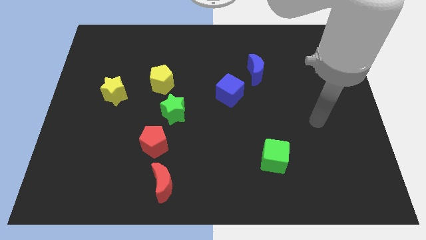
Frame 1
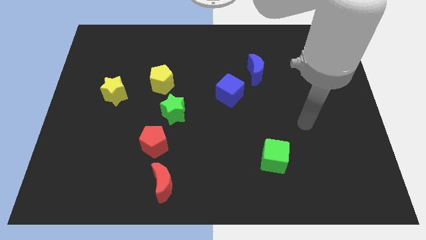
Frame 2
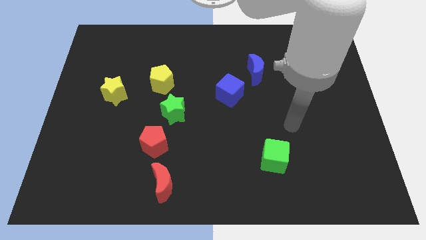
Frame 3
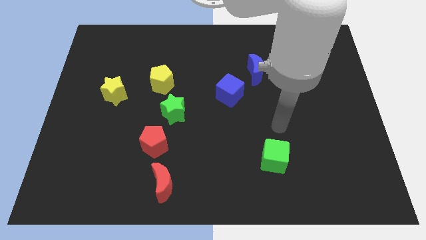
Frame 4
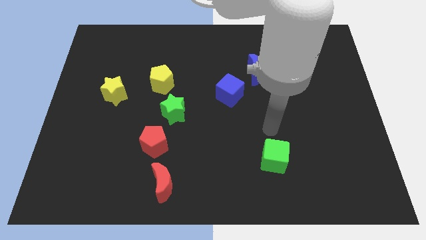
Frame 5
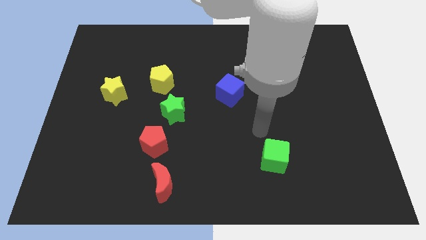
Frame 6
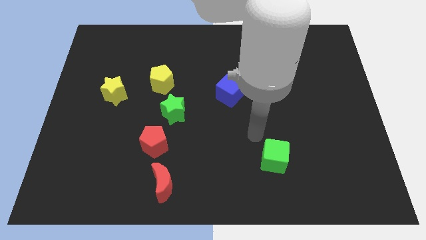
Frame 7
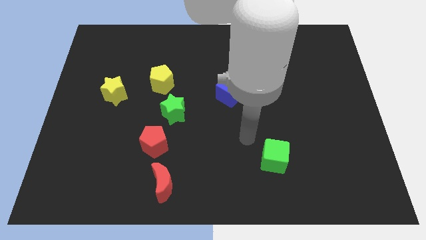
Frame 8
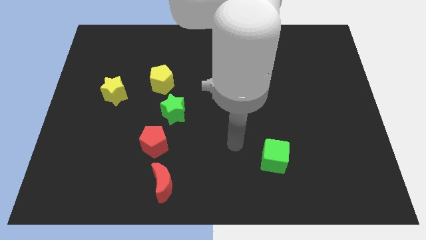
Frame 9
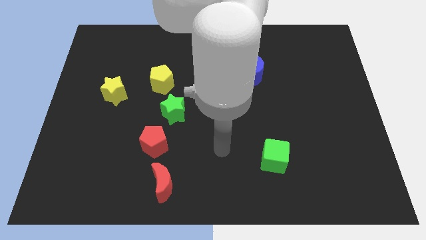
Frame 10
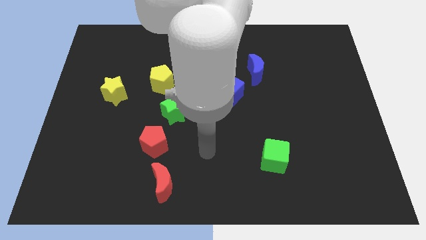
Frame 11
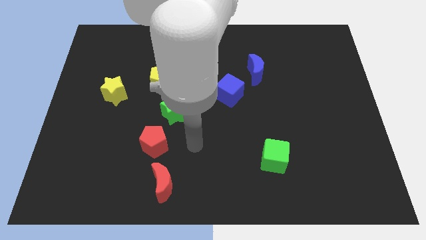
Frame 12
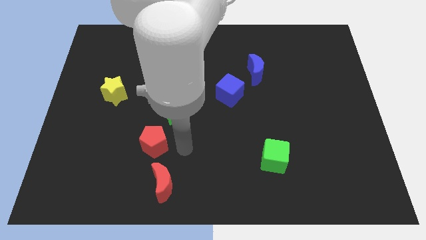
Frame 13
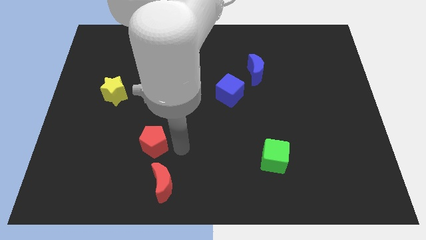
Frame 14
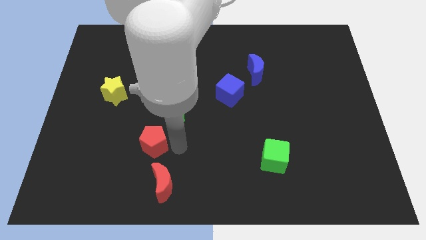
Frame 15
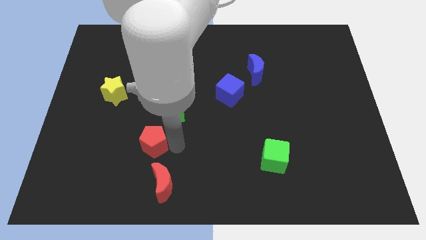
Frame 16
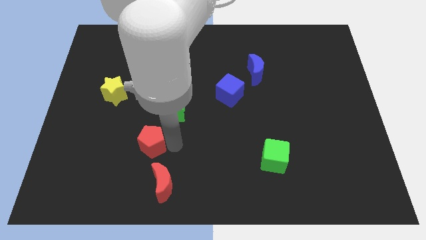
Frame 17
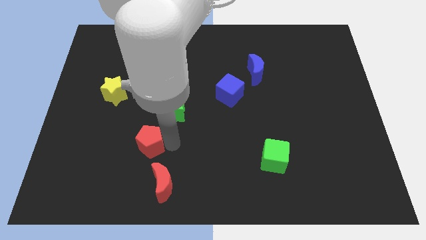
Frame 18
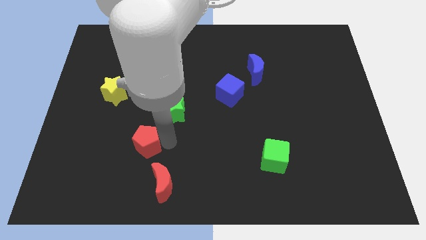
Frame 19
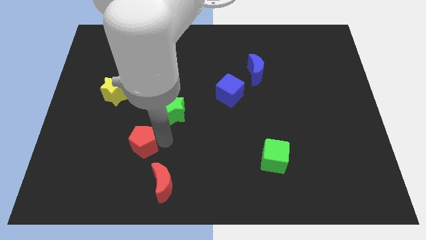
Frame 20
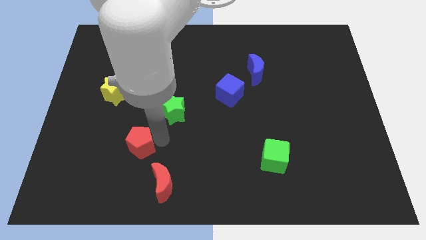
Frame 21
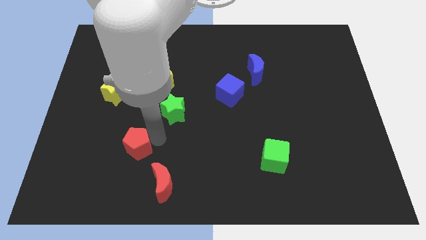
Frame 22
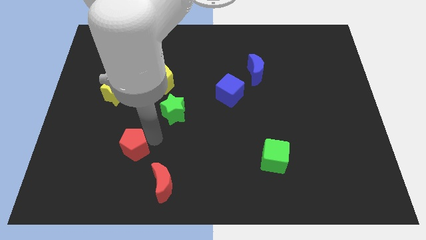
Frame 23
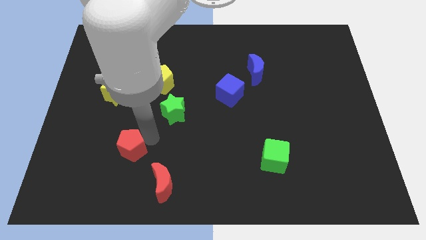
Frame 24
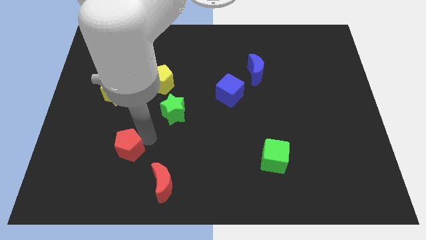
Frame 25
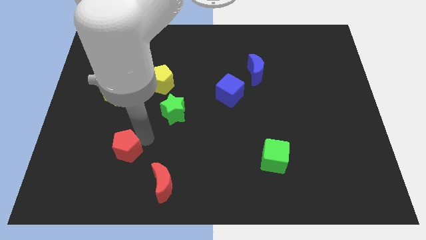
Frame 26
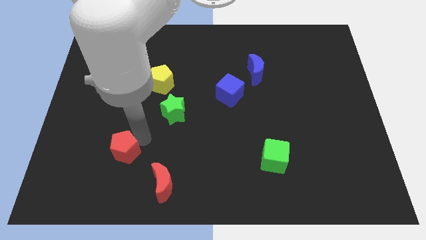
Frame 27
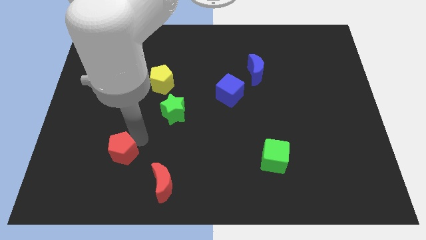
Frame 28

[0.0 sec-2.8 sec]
move the red pentagon away from the green star and red moon

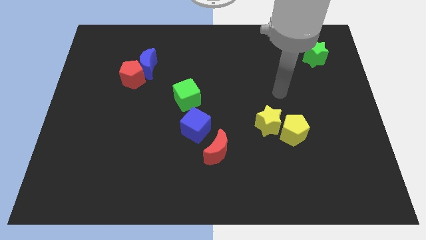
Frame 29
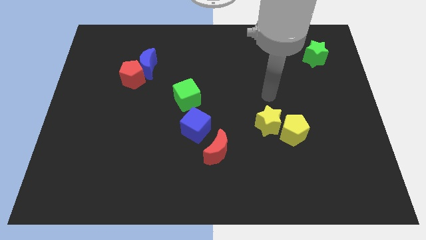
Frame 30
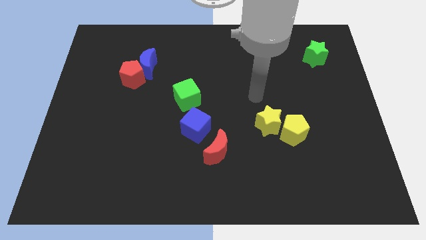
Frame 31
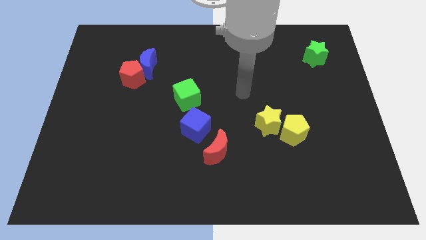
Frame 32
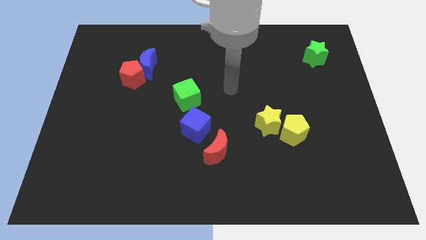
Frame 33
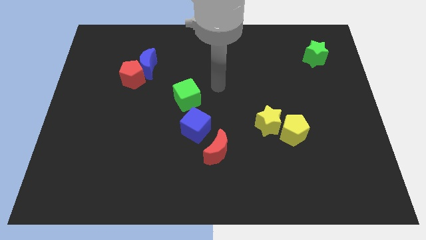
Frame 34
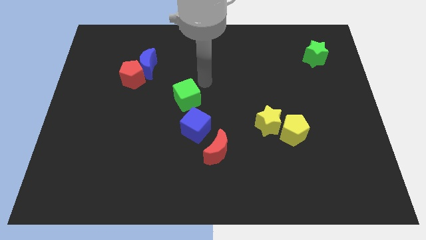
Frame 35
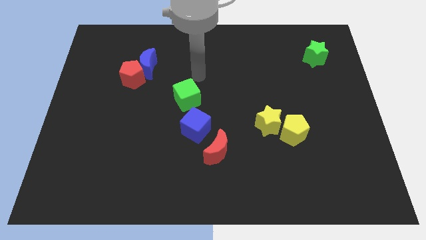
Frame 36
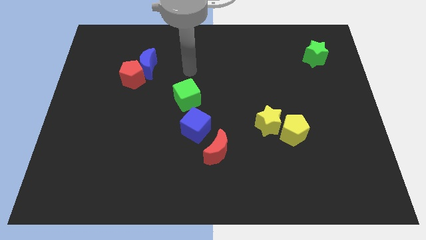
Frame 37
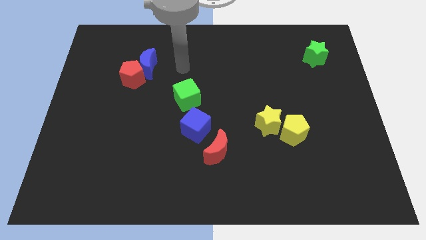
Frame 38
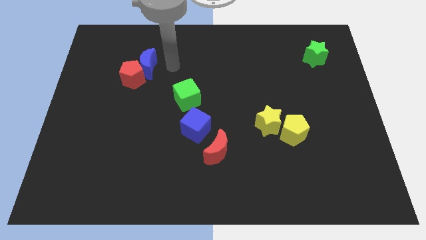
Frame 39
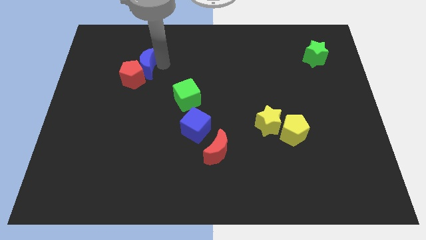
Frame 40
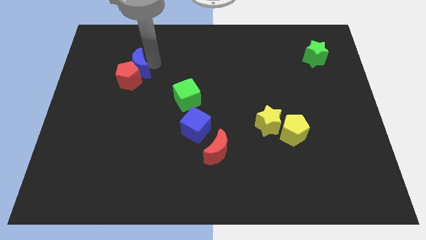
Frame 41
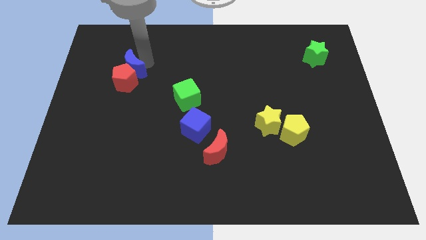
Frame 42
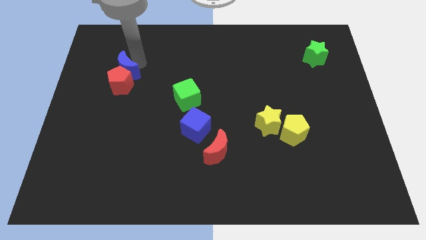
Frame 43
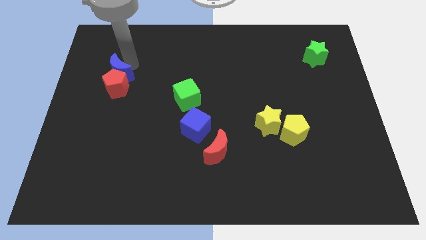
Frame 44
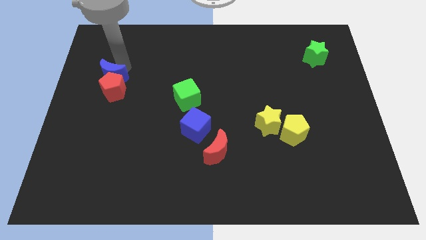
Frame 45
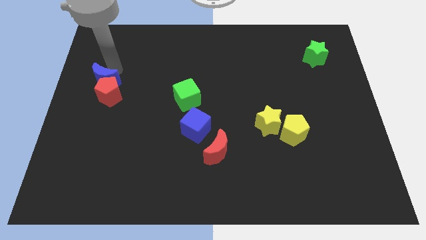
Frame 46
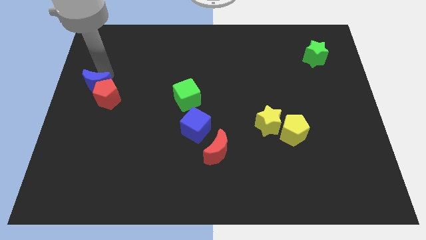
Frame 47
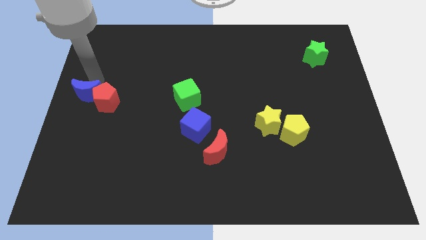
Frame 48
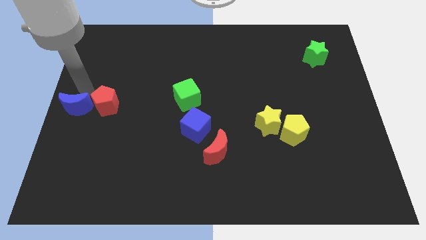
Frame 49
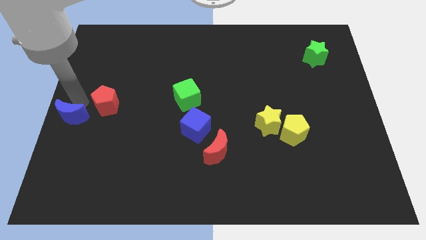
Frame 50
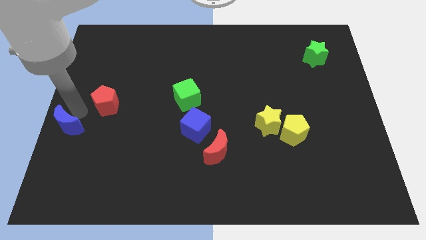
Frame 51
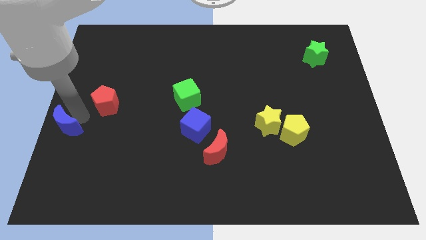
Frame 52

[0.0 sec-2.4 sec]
move the red pentagon away from the blue moon

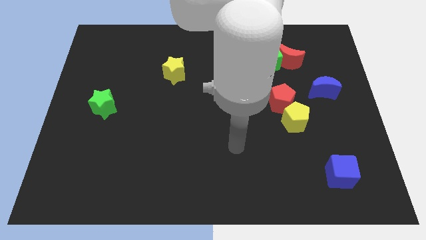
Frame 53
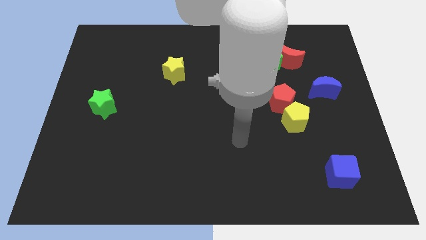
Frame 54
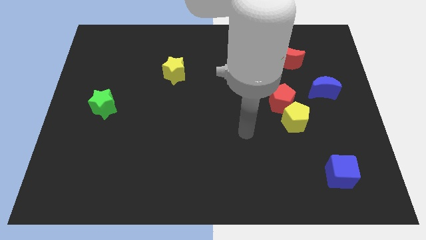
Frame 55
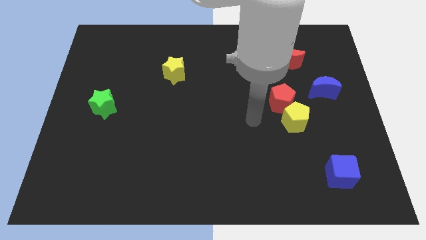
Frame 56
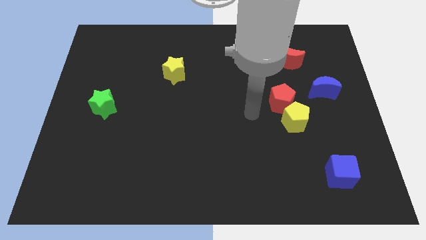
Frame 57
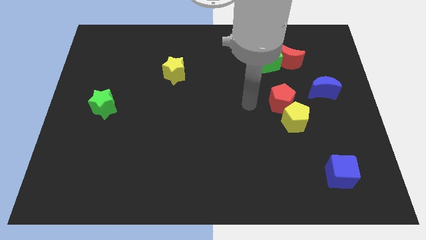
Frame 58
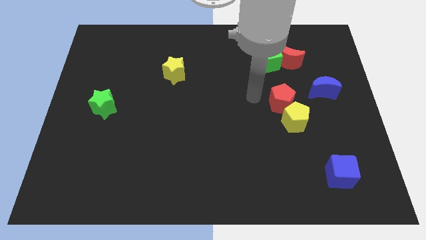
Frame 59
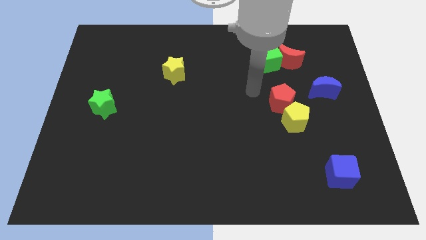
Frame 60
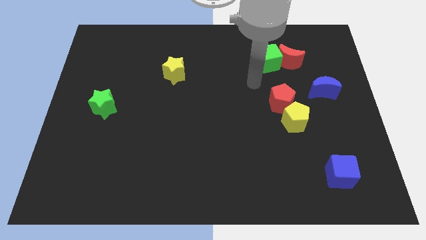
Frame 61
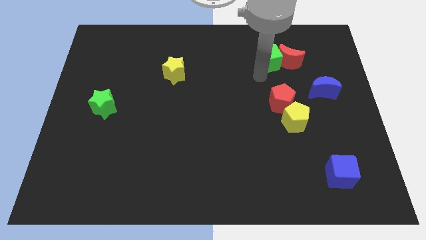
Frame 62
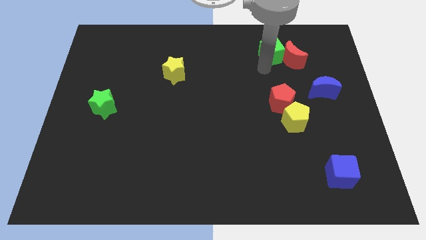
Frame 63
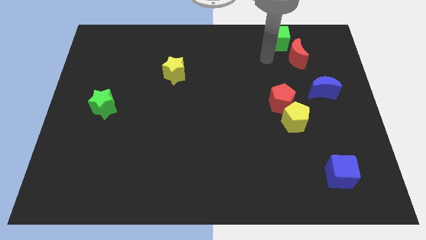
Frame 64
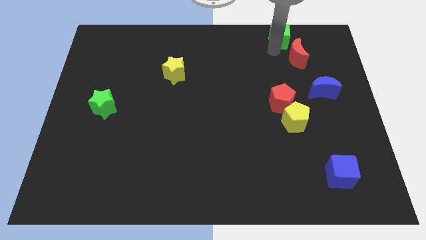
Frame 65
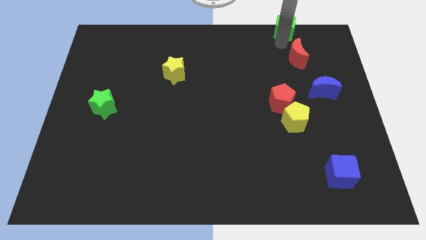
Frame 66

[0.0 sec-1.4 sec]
move the red moon away from the green cube

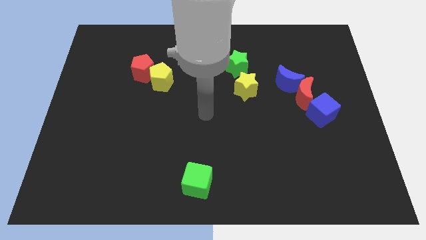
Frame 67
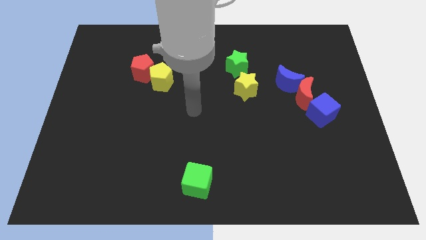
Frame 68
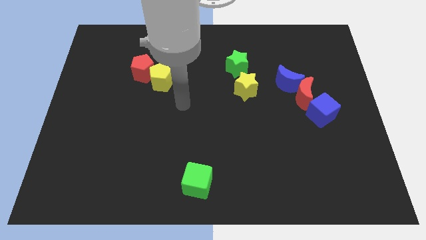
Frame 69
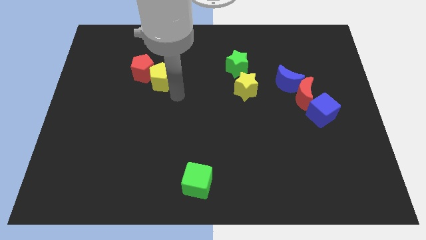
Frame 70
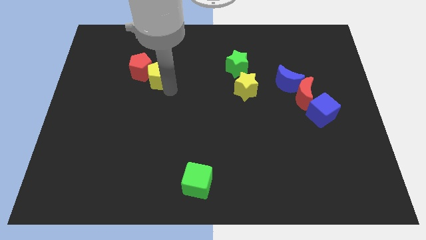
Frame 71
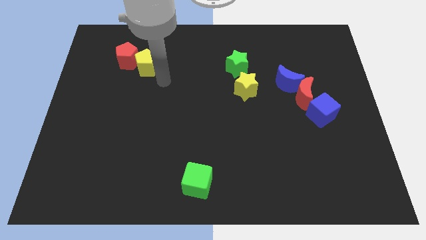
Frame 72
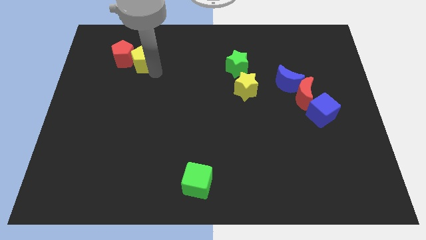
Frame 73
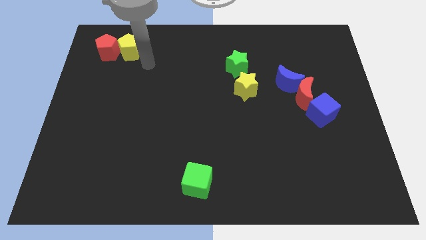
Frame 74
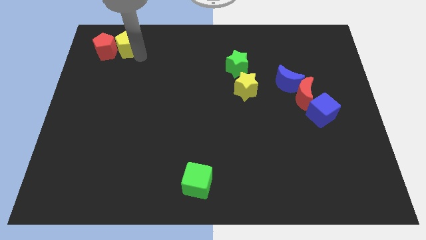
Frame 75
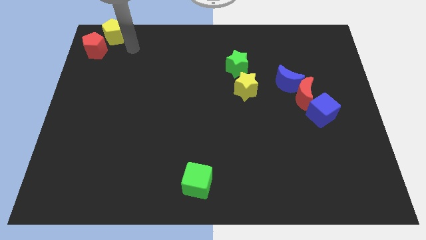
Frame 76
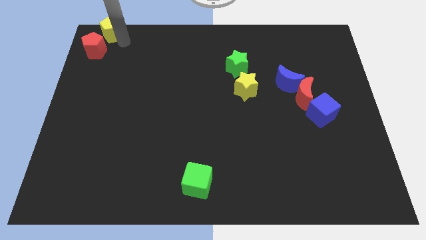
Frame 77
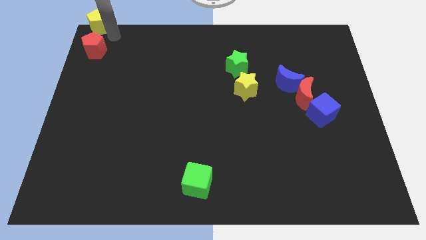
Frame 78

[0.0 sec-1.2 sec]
separate the red pentagon from the yellow pentagon

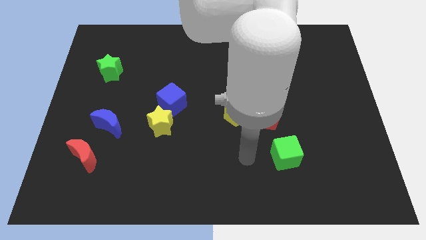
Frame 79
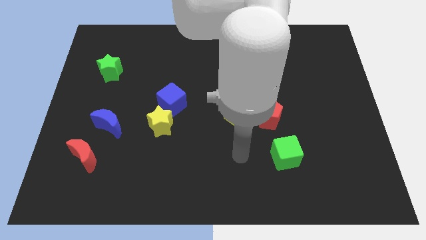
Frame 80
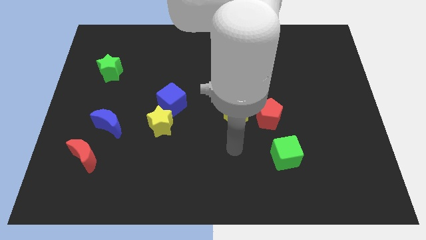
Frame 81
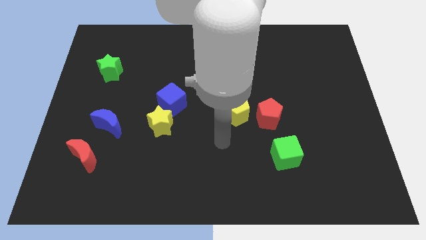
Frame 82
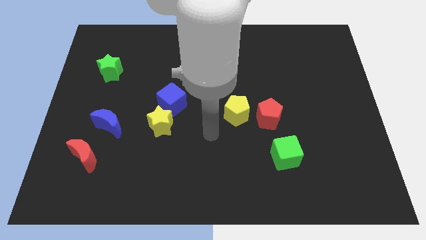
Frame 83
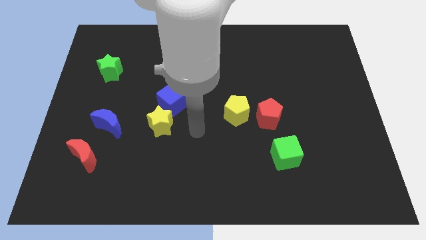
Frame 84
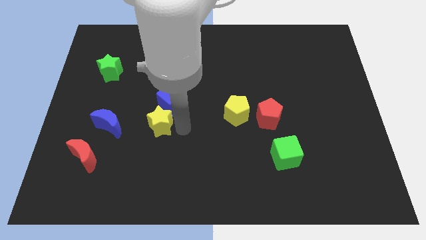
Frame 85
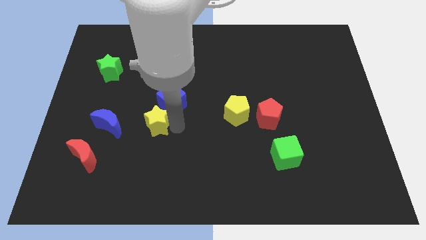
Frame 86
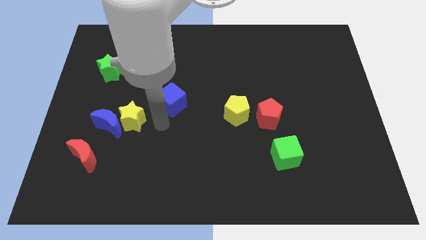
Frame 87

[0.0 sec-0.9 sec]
separate the blue cube from the yellow star

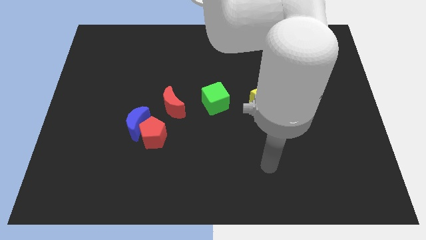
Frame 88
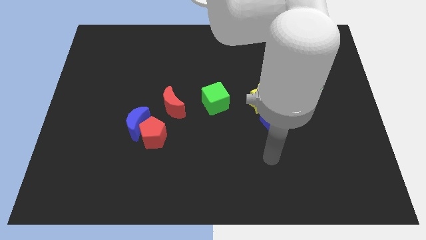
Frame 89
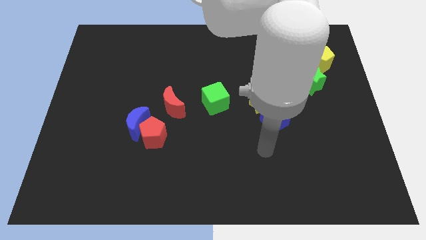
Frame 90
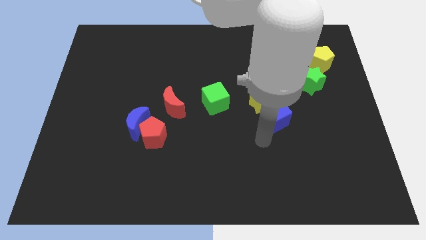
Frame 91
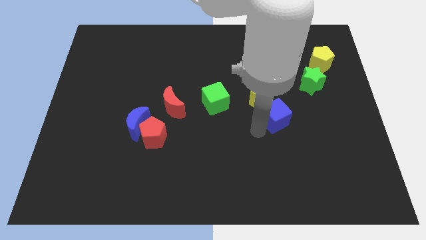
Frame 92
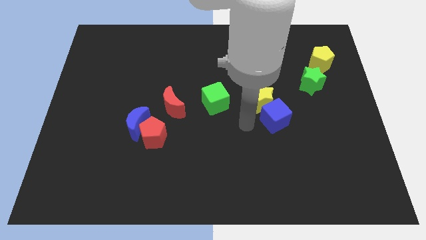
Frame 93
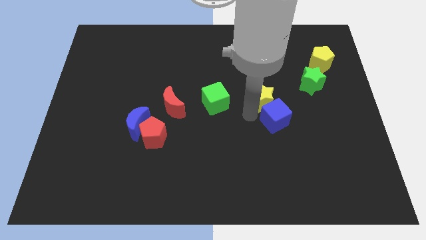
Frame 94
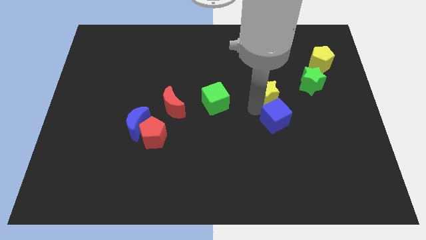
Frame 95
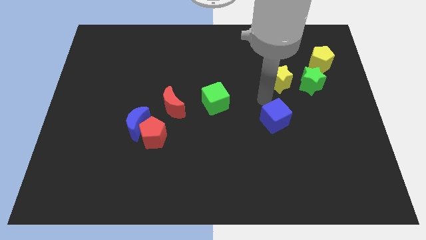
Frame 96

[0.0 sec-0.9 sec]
move the blue cube away from the yellow star
